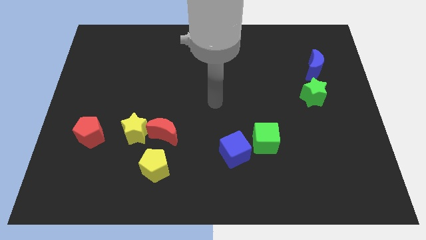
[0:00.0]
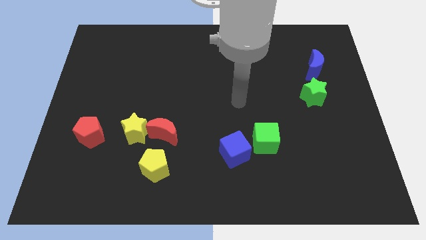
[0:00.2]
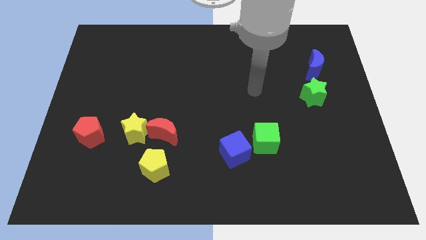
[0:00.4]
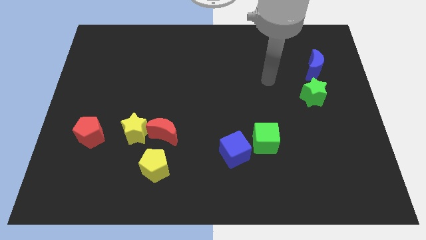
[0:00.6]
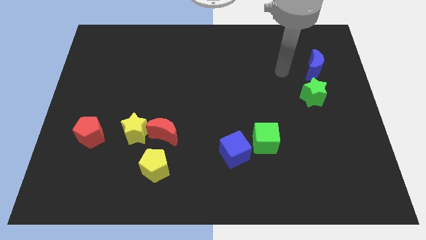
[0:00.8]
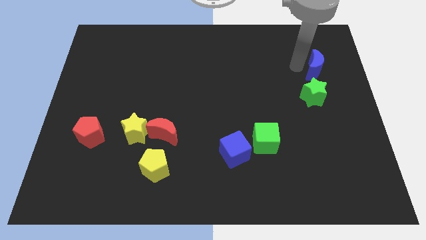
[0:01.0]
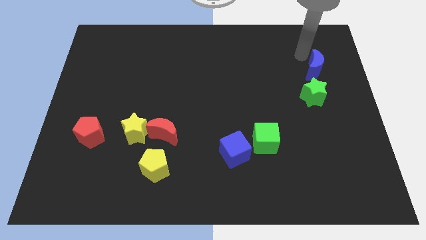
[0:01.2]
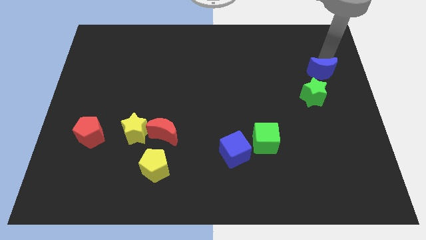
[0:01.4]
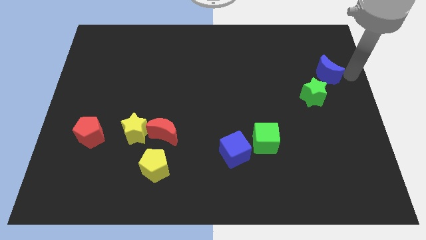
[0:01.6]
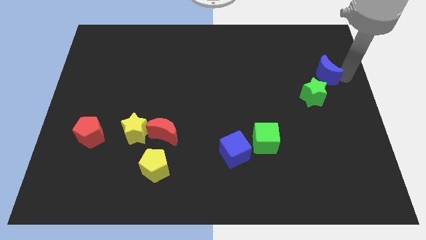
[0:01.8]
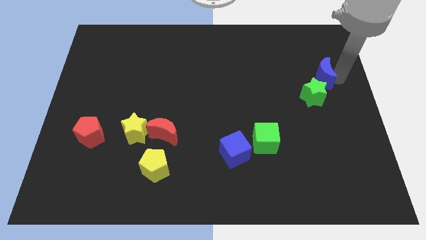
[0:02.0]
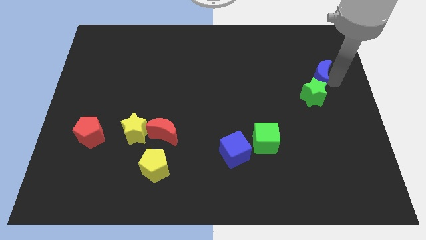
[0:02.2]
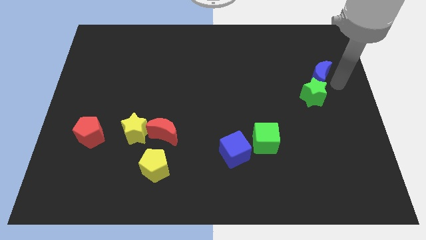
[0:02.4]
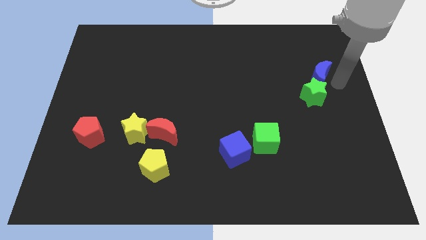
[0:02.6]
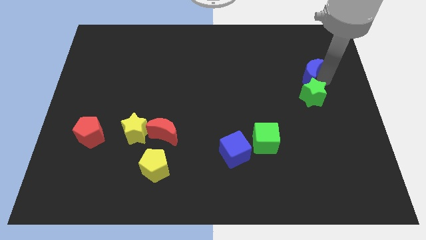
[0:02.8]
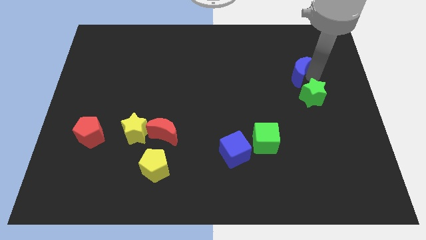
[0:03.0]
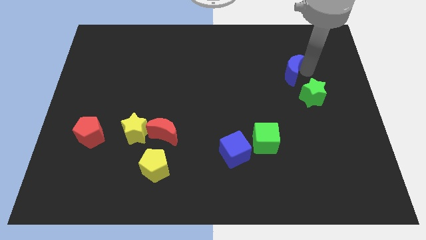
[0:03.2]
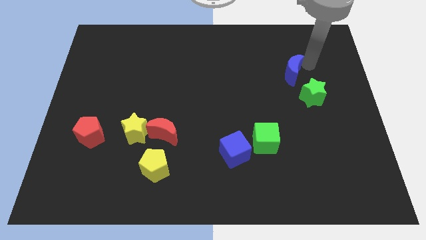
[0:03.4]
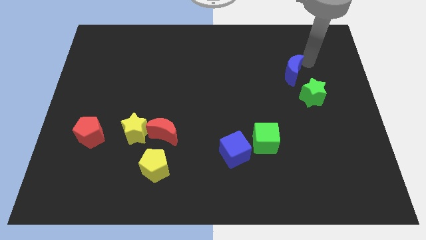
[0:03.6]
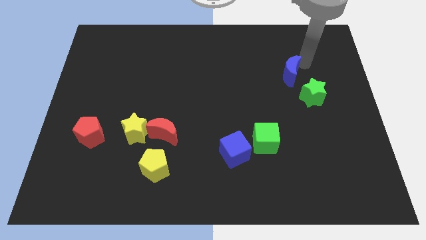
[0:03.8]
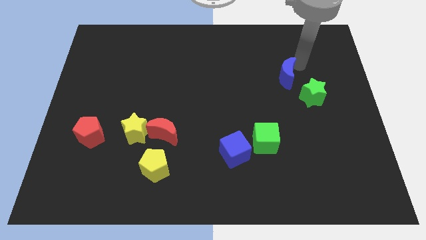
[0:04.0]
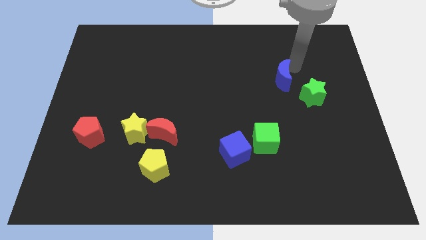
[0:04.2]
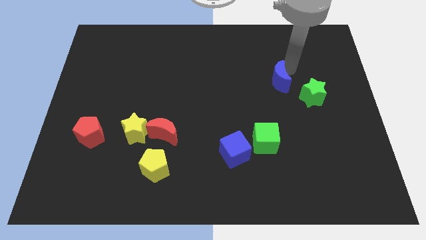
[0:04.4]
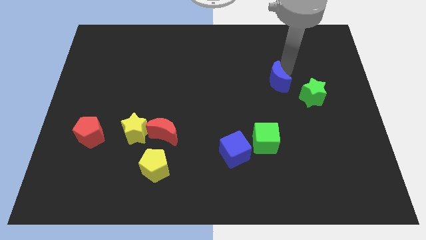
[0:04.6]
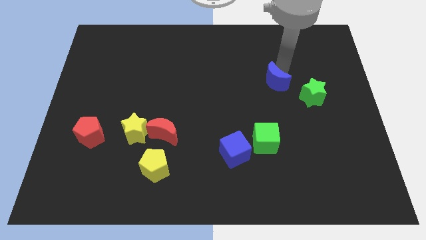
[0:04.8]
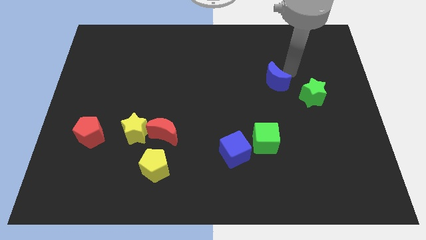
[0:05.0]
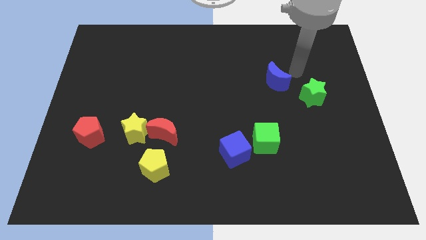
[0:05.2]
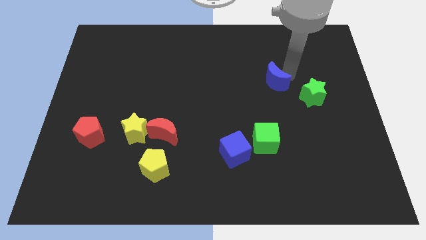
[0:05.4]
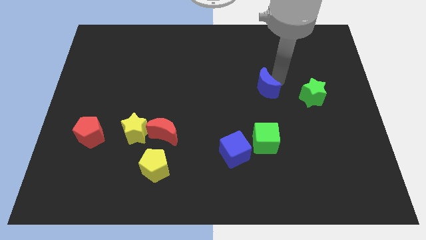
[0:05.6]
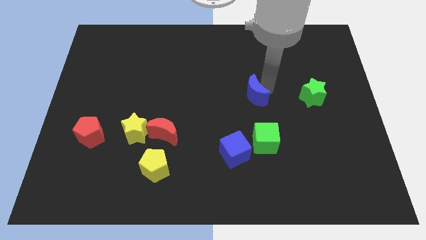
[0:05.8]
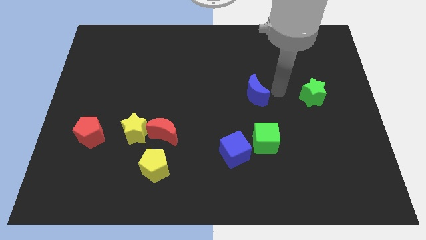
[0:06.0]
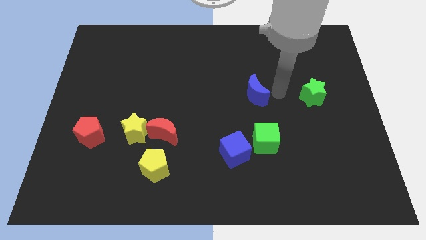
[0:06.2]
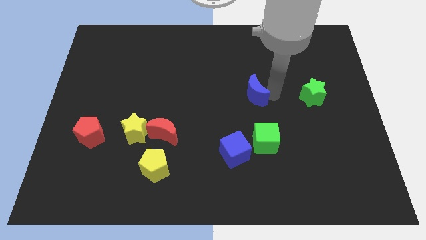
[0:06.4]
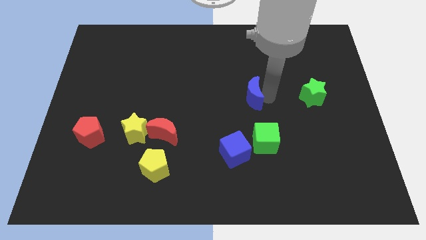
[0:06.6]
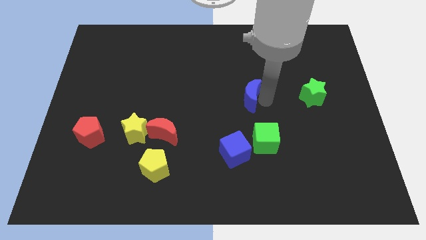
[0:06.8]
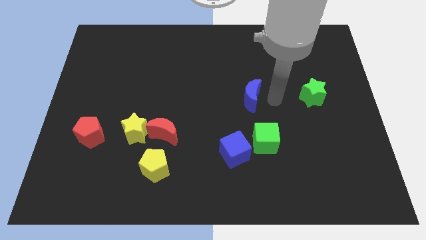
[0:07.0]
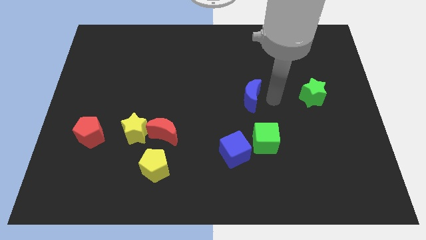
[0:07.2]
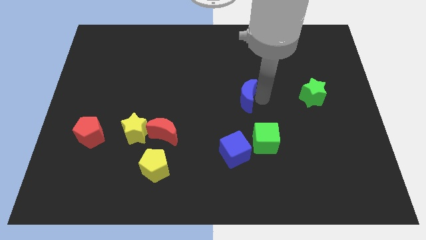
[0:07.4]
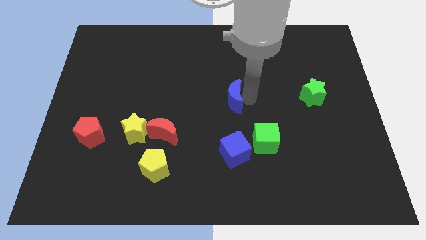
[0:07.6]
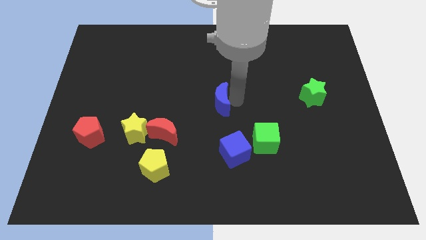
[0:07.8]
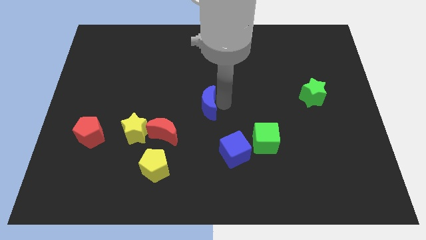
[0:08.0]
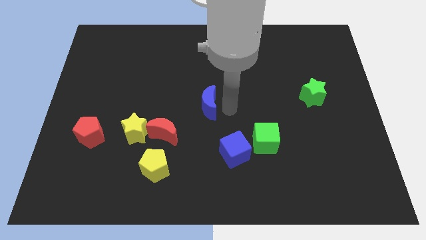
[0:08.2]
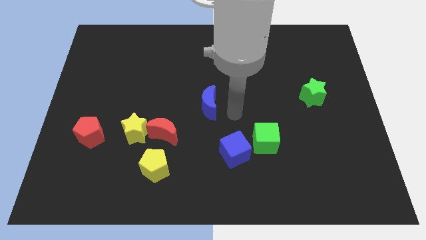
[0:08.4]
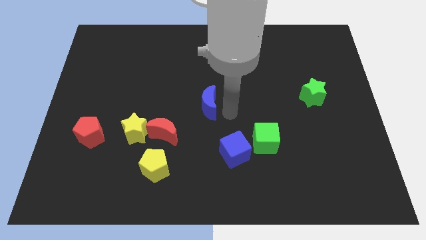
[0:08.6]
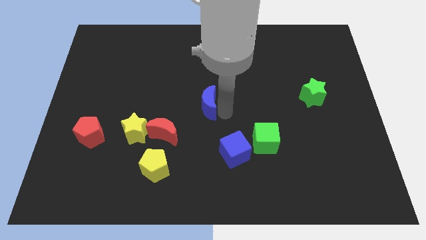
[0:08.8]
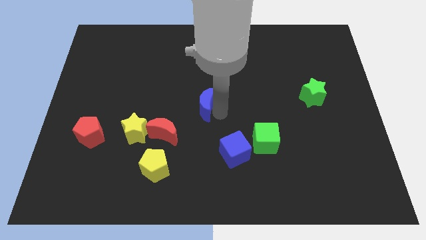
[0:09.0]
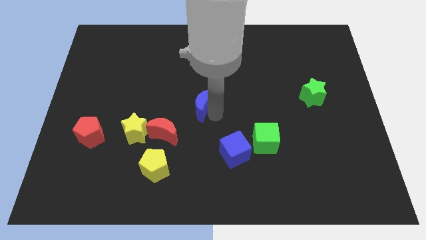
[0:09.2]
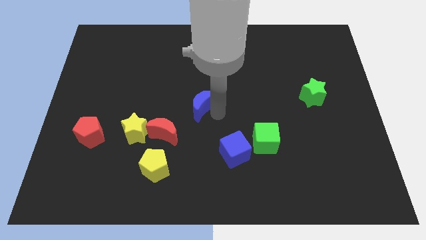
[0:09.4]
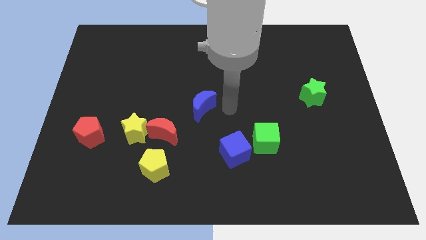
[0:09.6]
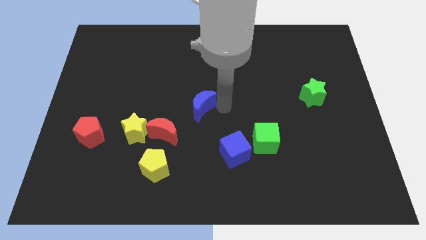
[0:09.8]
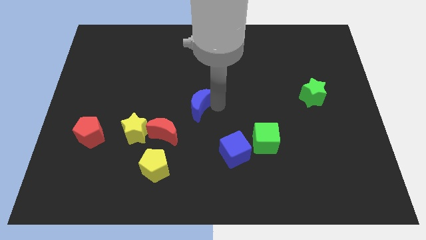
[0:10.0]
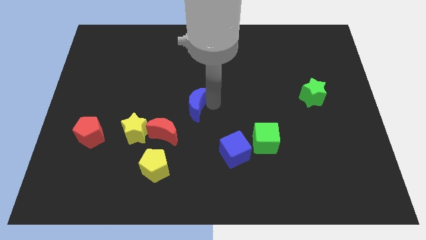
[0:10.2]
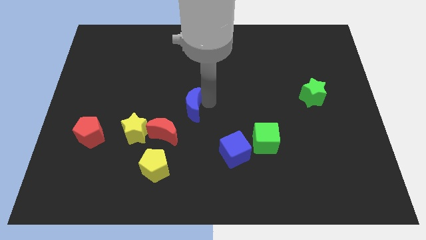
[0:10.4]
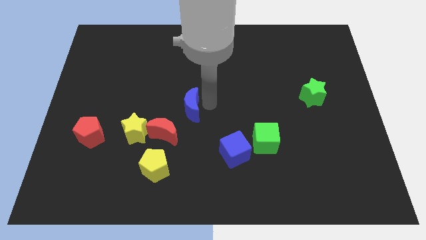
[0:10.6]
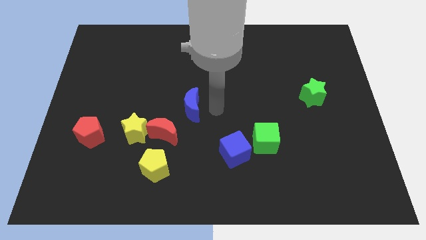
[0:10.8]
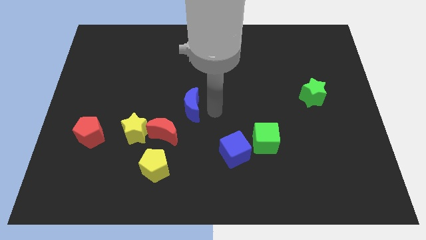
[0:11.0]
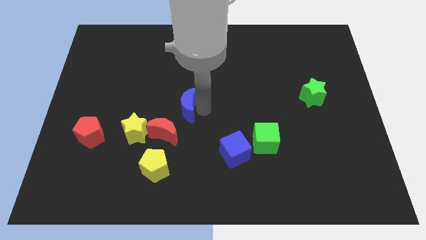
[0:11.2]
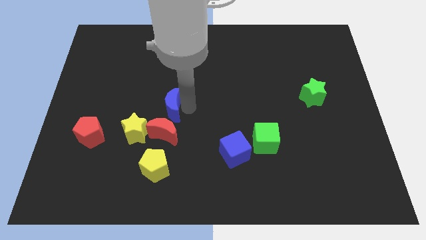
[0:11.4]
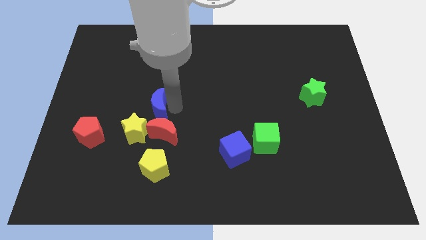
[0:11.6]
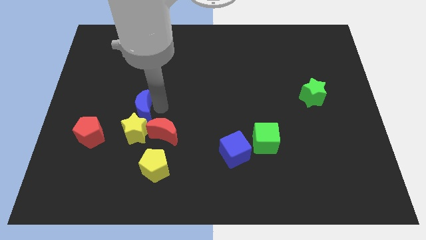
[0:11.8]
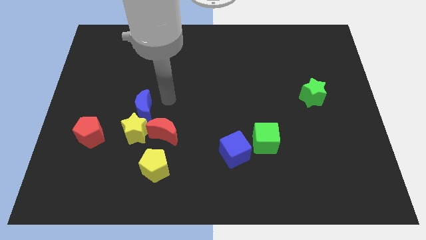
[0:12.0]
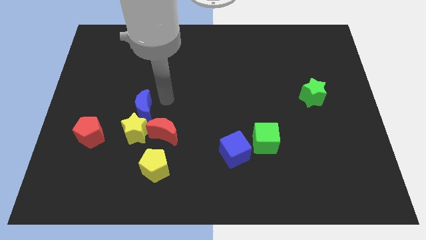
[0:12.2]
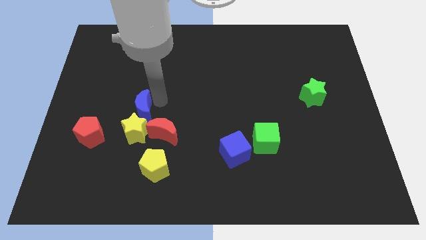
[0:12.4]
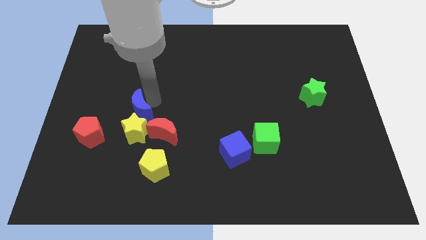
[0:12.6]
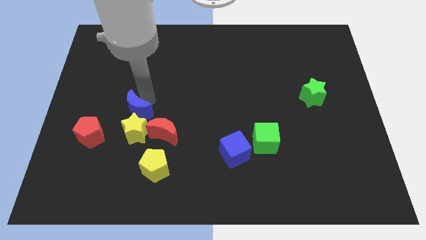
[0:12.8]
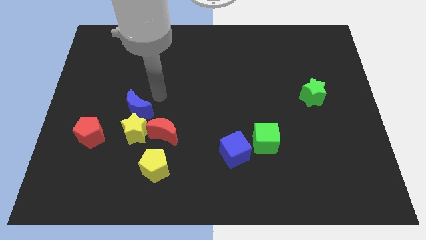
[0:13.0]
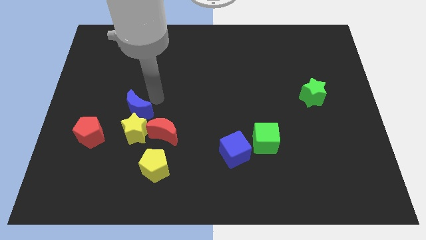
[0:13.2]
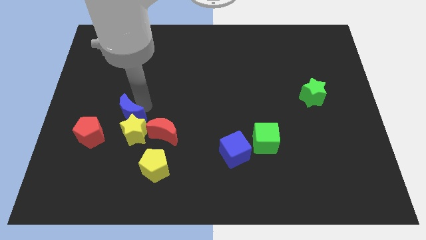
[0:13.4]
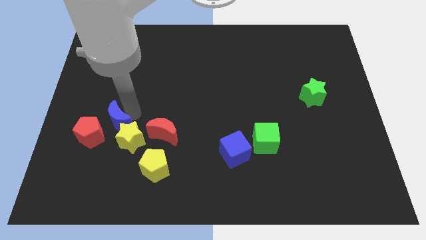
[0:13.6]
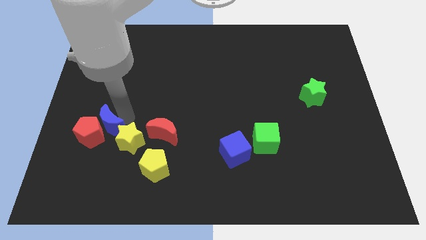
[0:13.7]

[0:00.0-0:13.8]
put the blue moon to the red pentagon

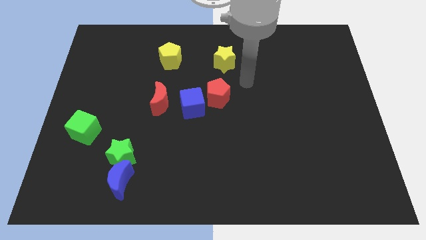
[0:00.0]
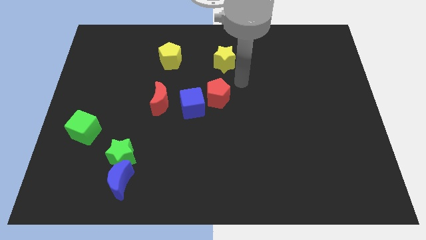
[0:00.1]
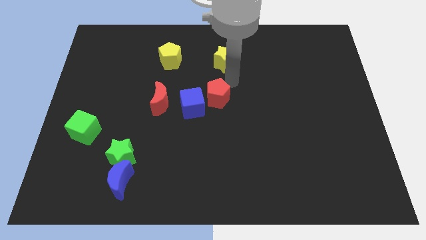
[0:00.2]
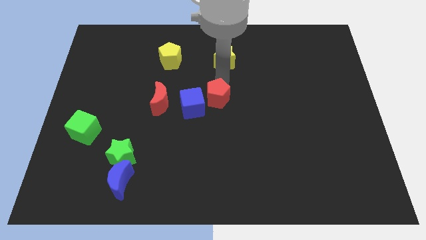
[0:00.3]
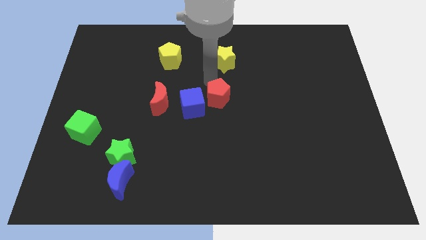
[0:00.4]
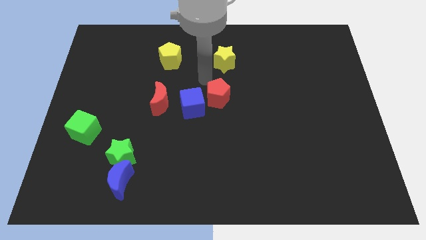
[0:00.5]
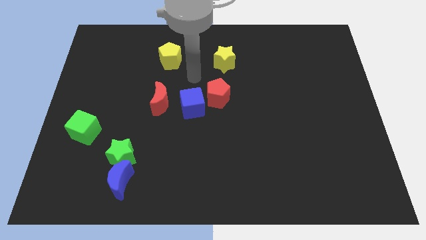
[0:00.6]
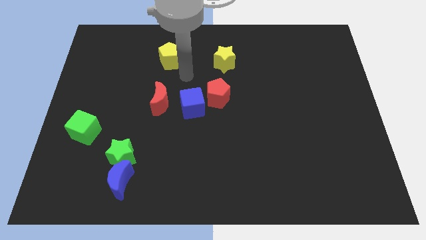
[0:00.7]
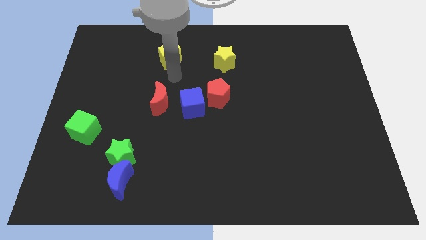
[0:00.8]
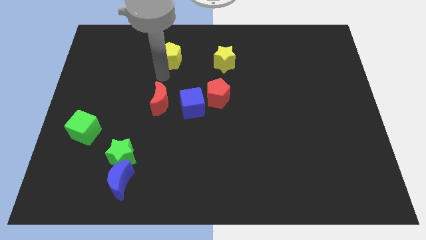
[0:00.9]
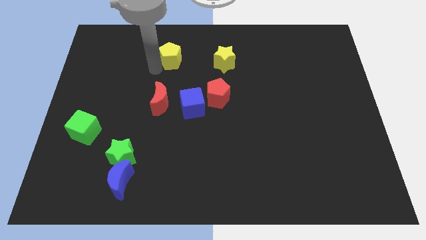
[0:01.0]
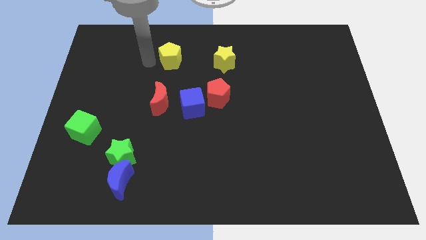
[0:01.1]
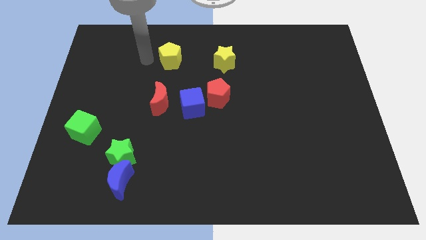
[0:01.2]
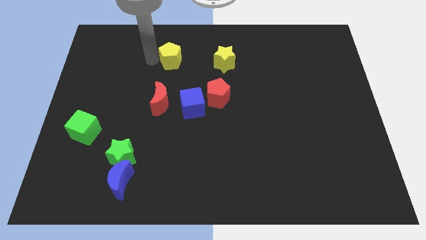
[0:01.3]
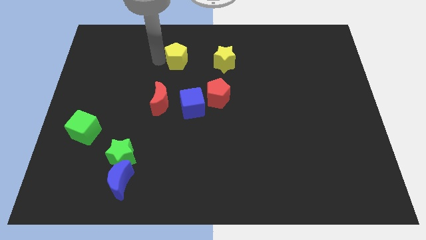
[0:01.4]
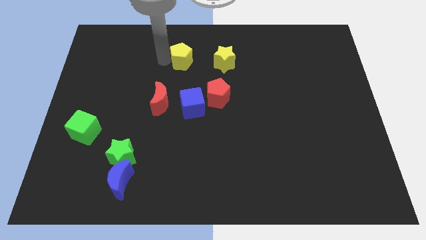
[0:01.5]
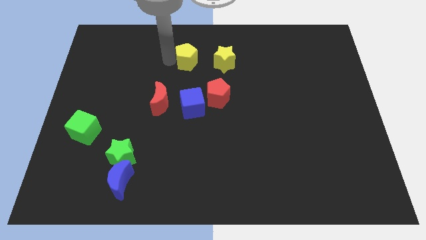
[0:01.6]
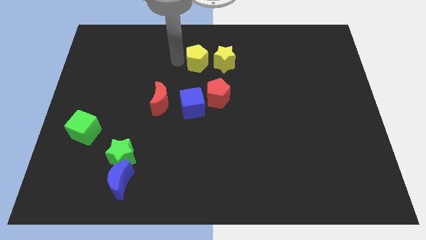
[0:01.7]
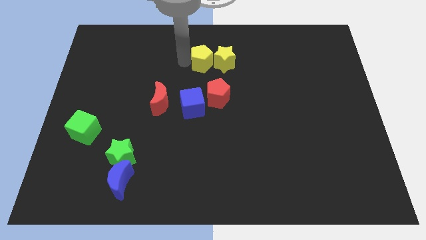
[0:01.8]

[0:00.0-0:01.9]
slide the yellow pentagon close to the yellow star
